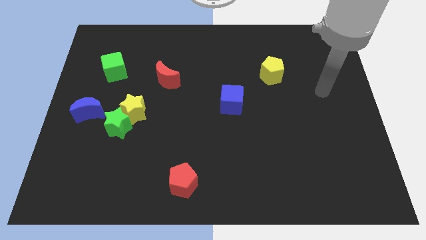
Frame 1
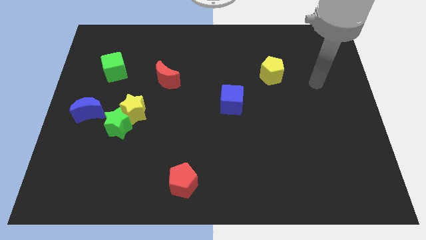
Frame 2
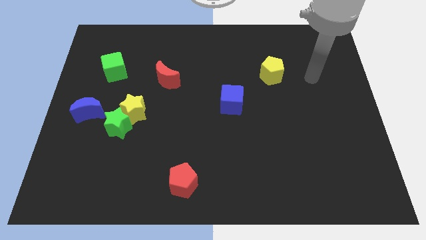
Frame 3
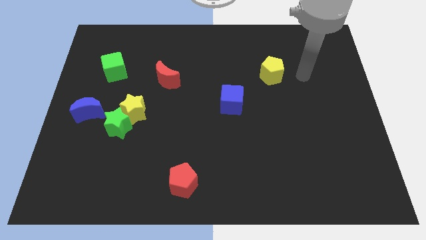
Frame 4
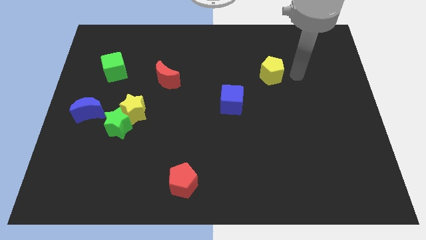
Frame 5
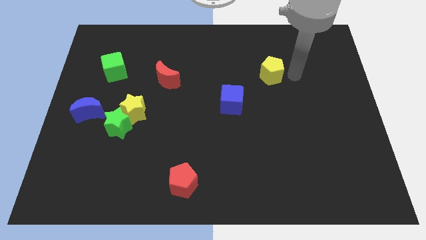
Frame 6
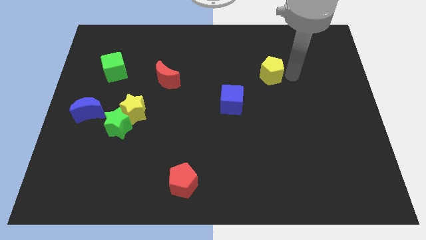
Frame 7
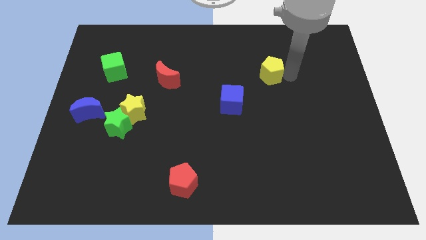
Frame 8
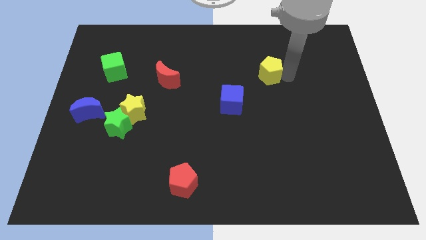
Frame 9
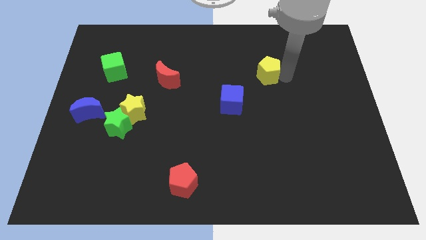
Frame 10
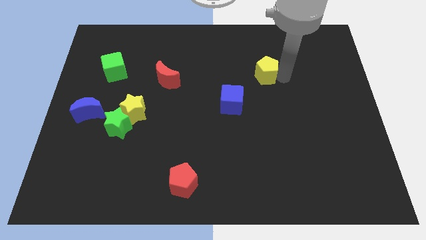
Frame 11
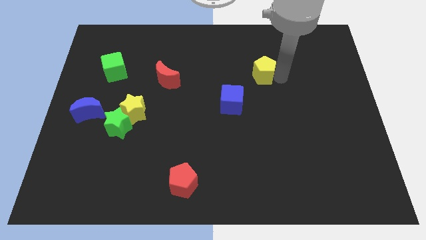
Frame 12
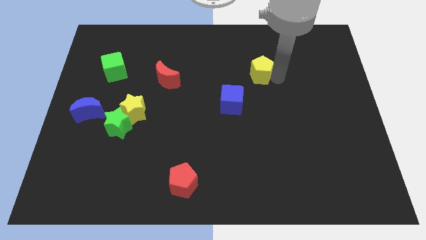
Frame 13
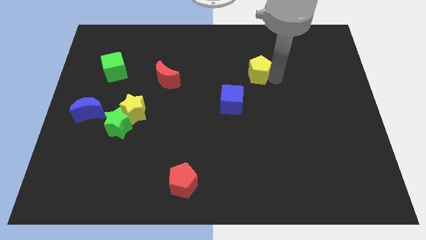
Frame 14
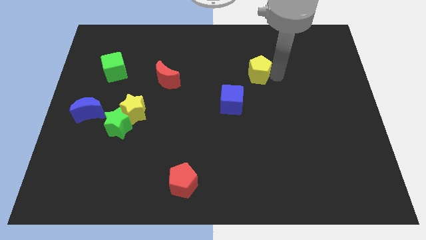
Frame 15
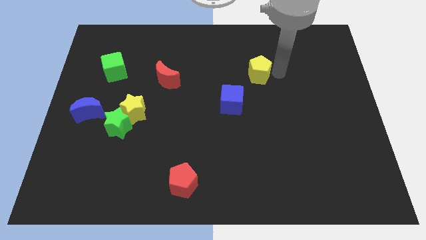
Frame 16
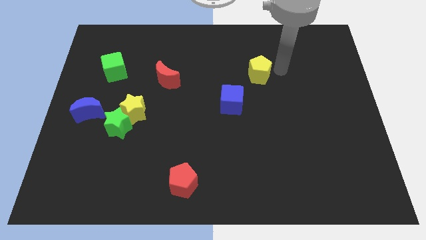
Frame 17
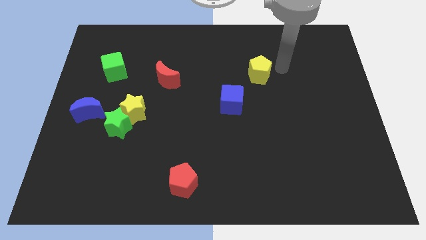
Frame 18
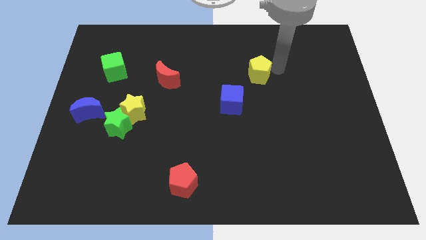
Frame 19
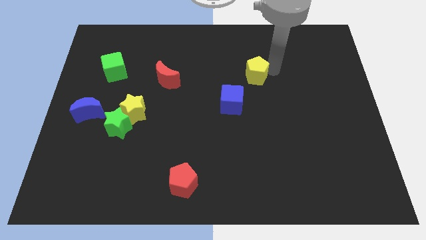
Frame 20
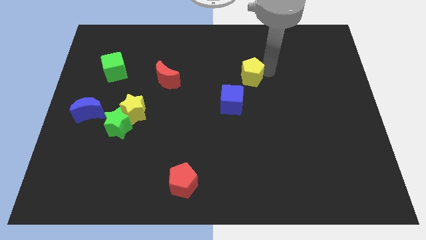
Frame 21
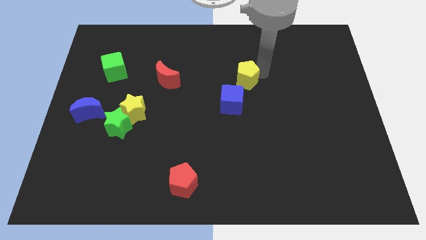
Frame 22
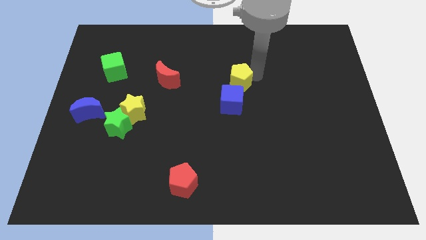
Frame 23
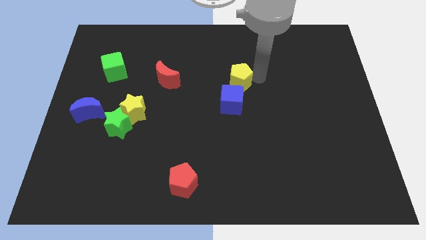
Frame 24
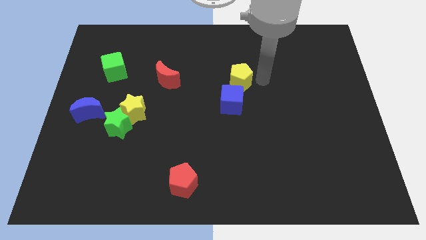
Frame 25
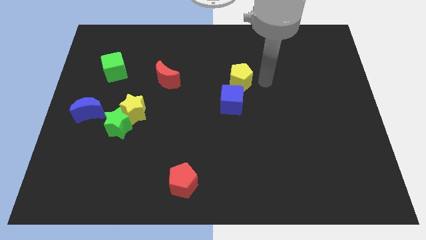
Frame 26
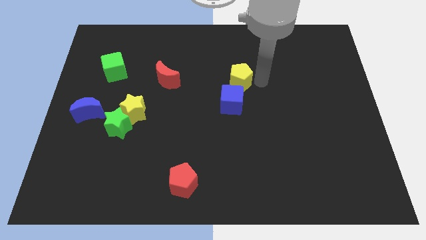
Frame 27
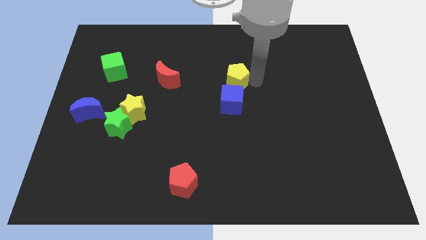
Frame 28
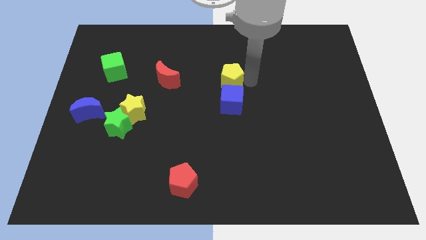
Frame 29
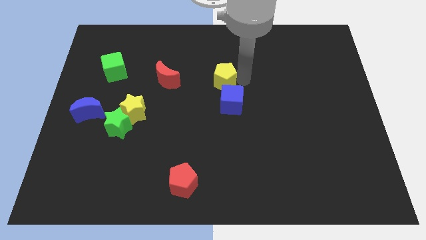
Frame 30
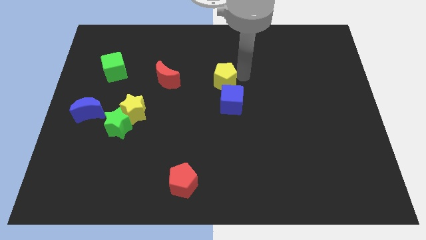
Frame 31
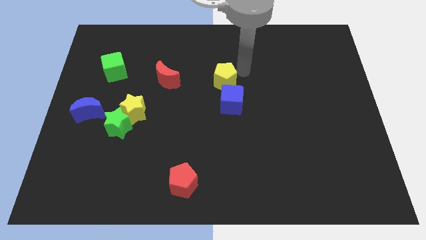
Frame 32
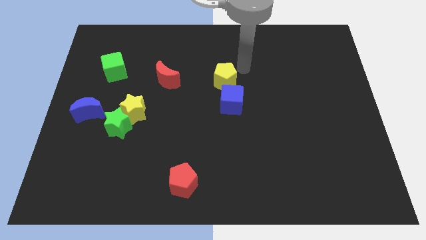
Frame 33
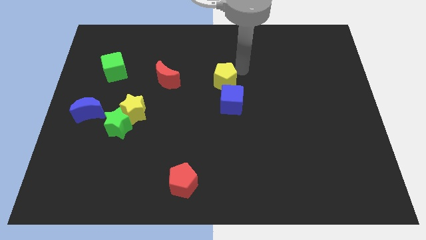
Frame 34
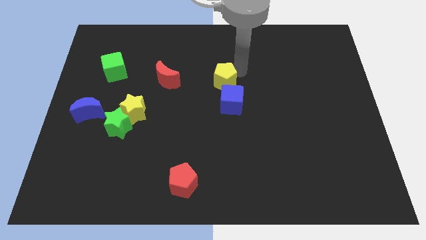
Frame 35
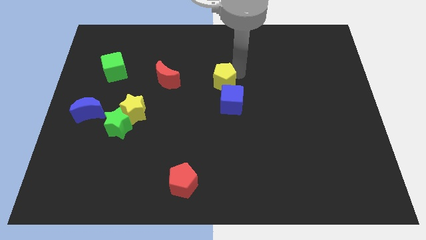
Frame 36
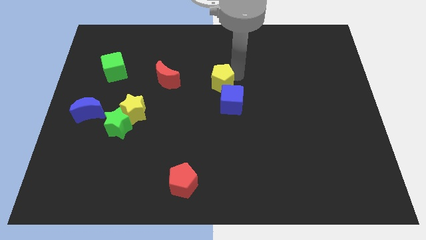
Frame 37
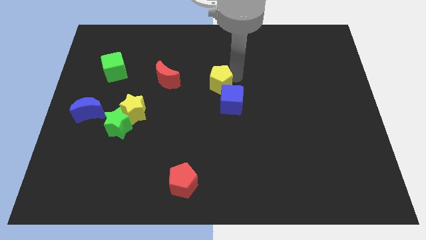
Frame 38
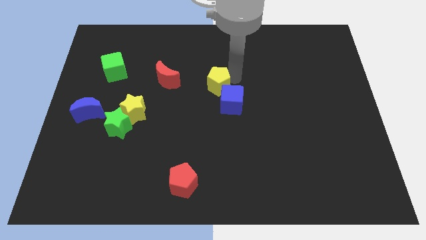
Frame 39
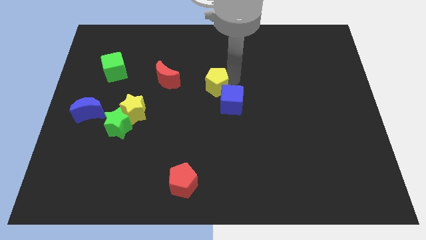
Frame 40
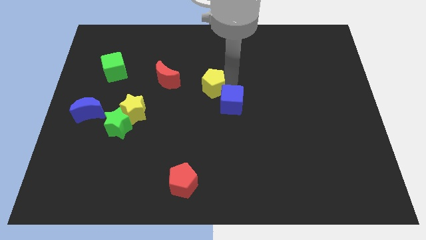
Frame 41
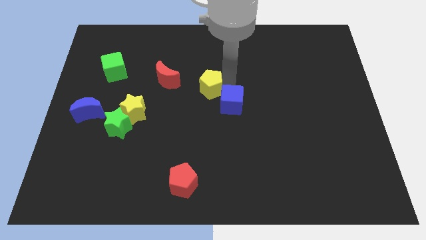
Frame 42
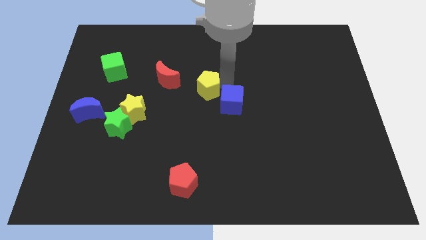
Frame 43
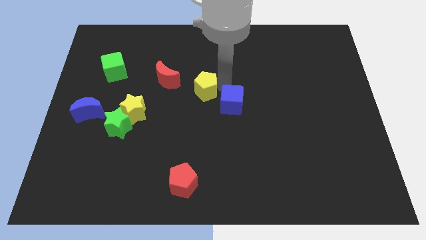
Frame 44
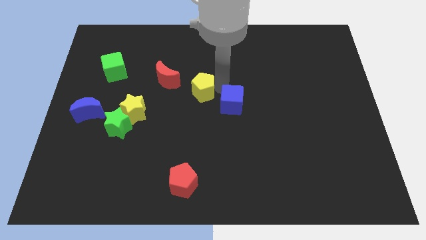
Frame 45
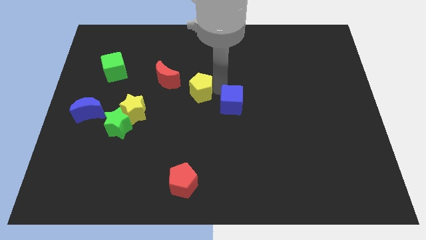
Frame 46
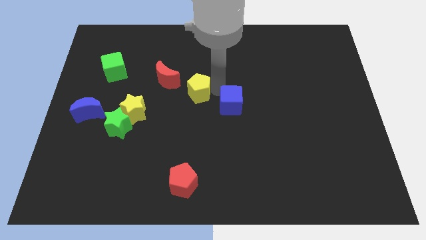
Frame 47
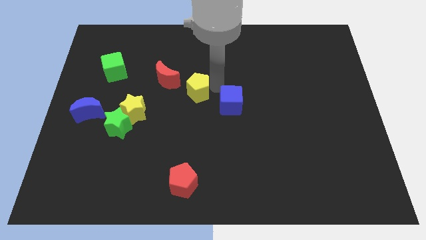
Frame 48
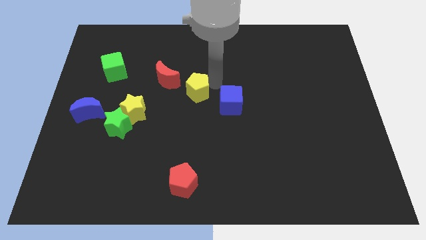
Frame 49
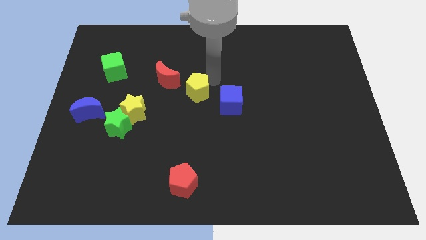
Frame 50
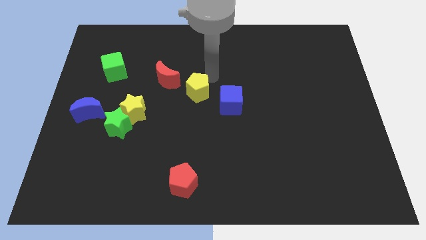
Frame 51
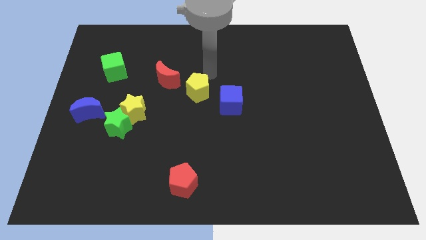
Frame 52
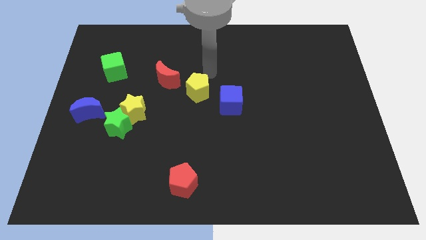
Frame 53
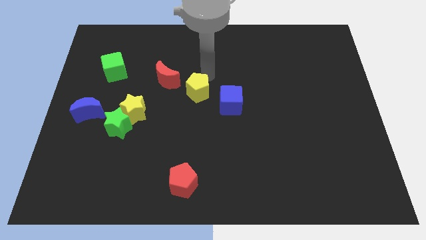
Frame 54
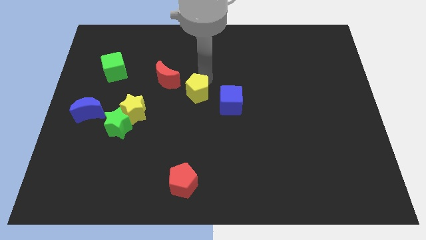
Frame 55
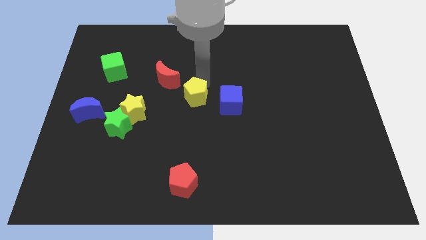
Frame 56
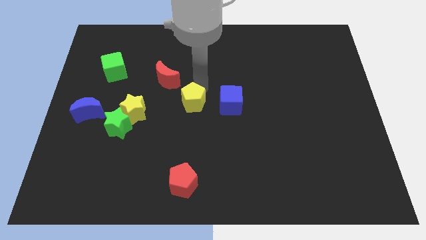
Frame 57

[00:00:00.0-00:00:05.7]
put the yellow pentagon just right of the yellow star

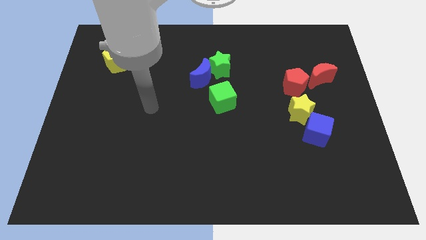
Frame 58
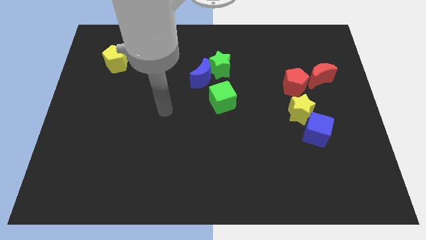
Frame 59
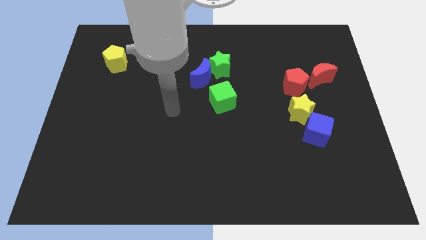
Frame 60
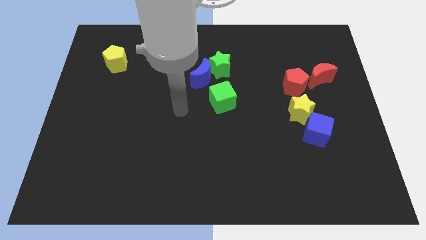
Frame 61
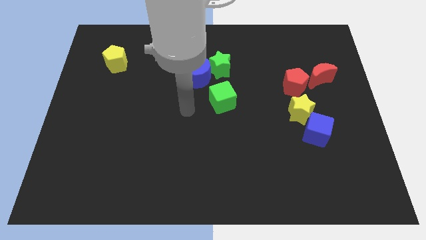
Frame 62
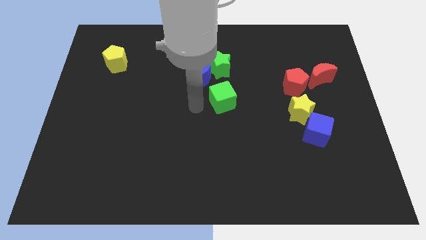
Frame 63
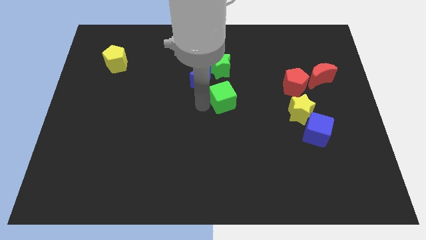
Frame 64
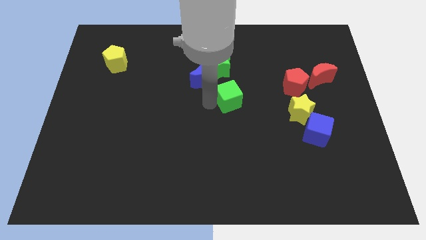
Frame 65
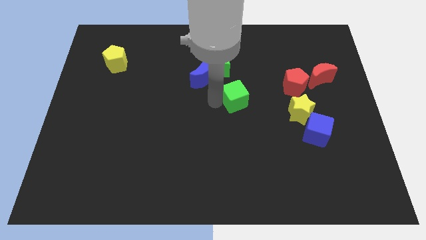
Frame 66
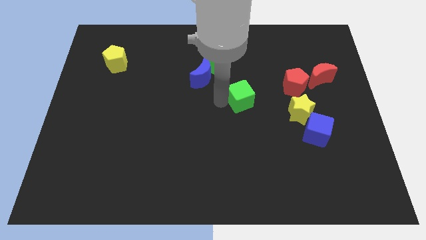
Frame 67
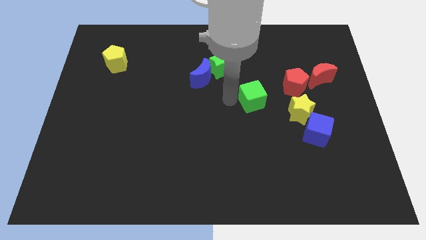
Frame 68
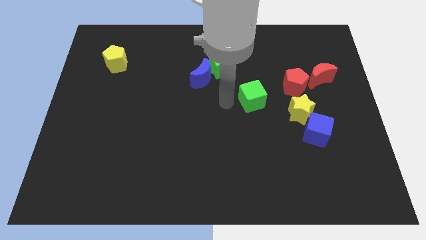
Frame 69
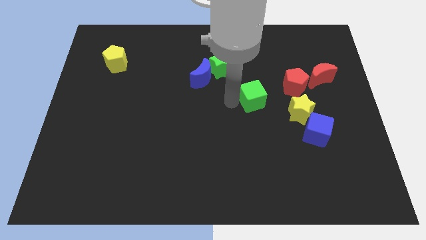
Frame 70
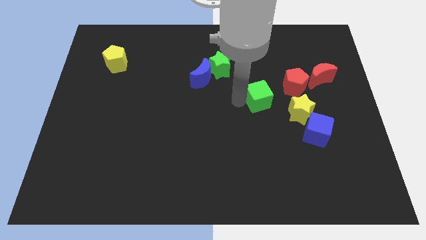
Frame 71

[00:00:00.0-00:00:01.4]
move the green cube to the top left side of the yellow star

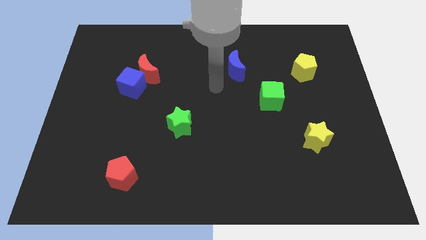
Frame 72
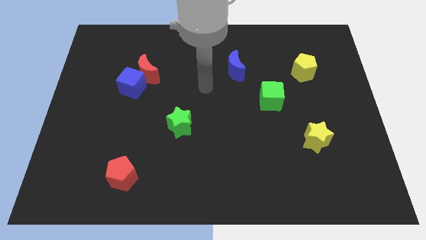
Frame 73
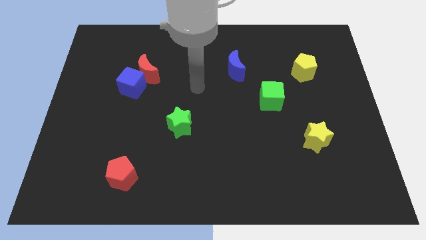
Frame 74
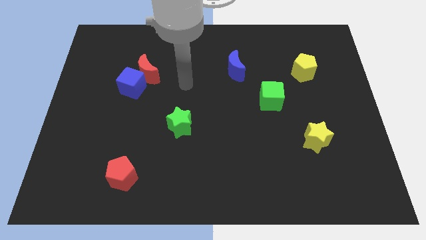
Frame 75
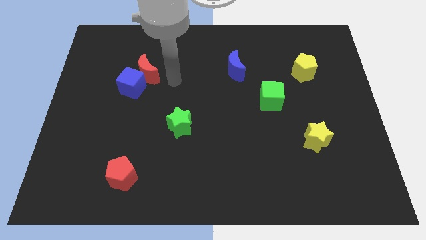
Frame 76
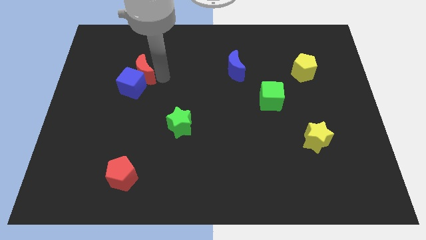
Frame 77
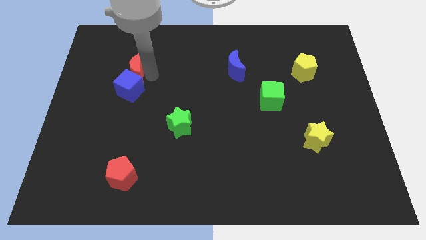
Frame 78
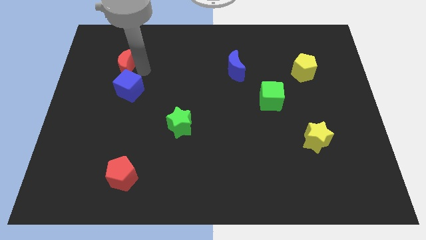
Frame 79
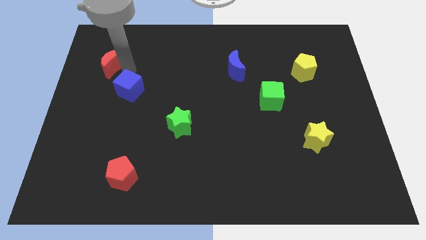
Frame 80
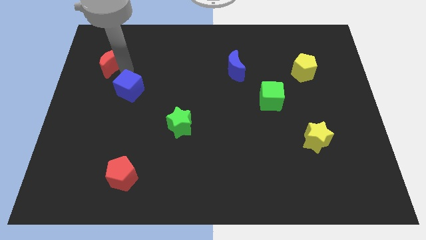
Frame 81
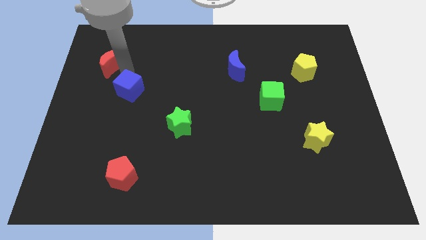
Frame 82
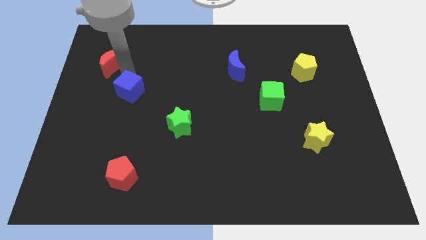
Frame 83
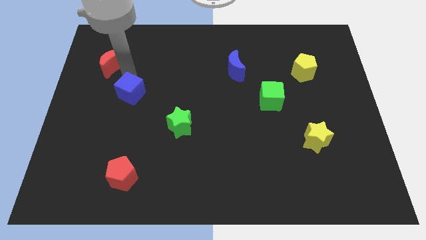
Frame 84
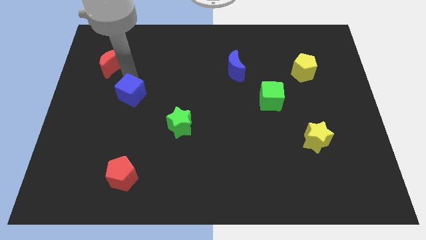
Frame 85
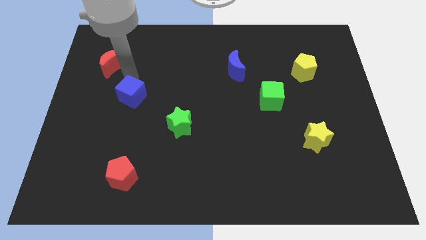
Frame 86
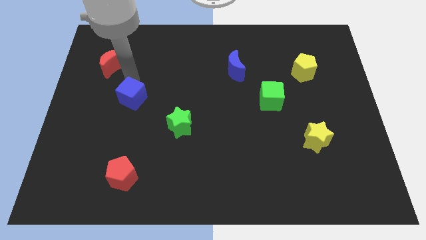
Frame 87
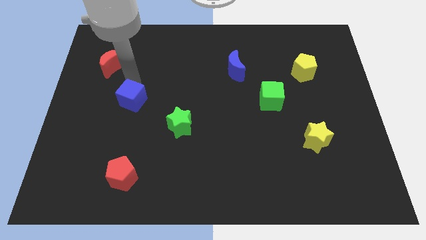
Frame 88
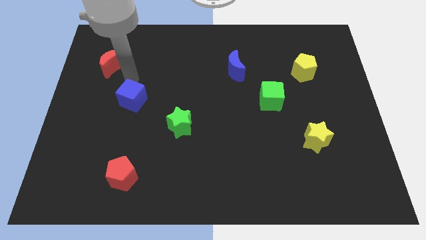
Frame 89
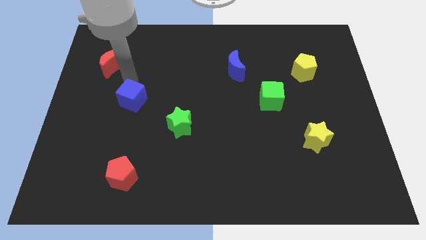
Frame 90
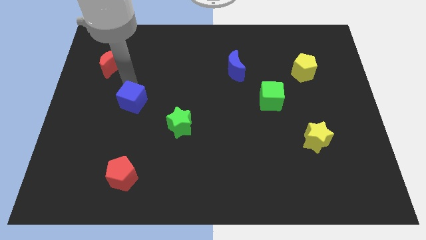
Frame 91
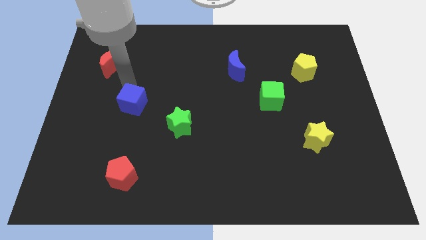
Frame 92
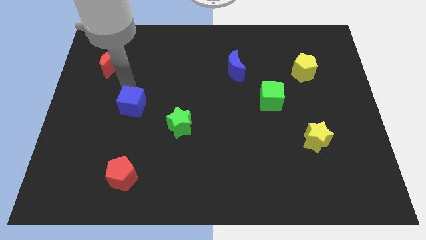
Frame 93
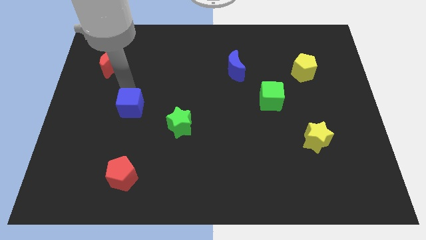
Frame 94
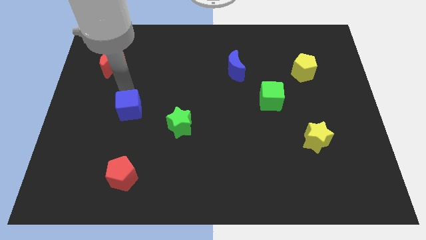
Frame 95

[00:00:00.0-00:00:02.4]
move the blue cube to the left of the green star
